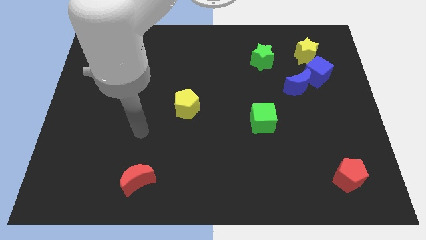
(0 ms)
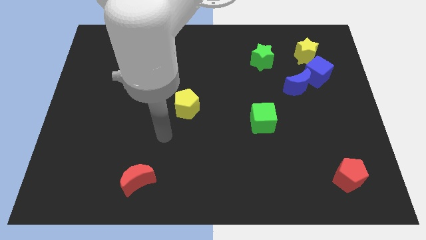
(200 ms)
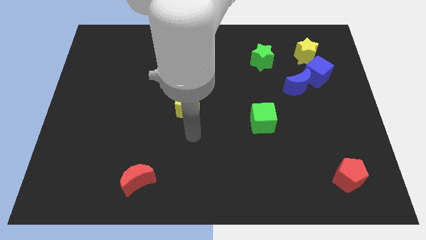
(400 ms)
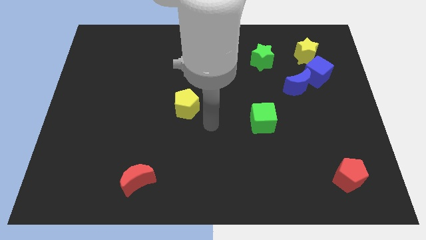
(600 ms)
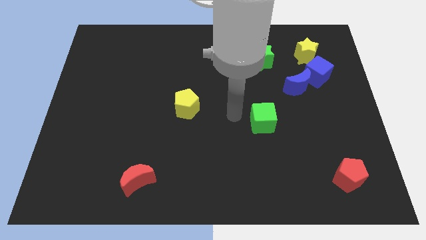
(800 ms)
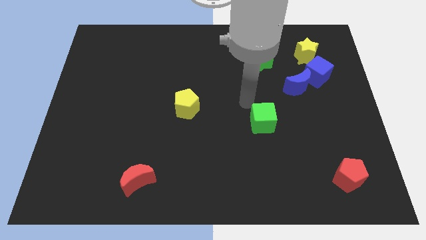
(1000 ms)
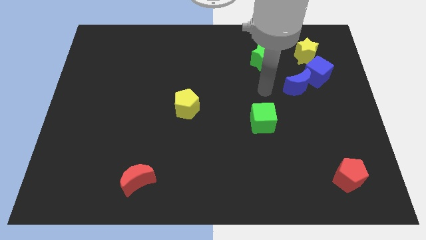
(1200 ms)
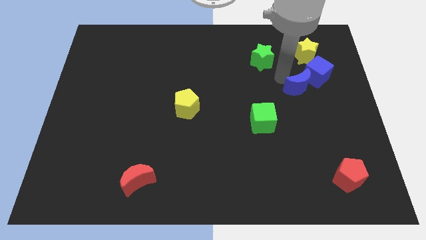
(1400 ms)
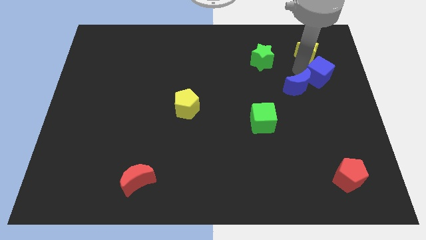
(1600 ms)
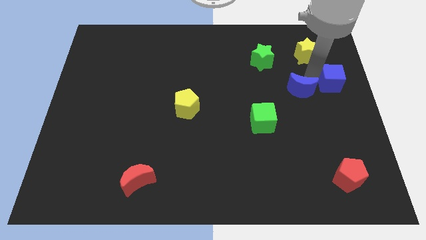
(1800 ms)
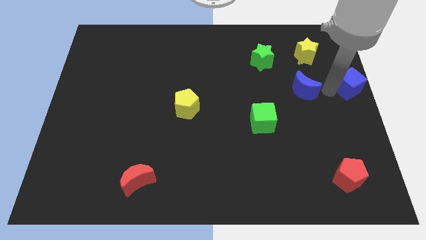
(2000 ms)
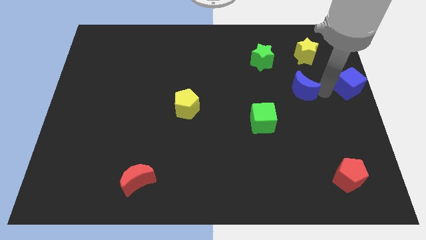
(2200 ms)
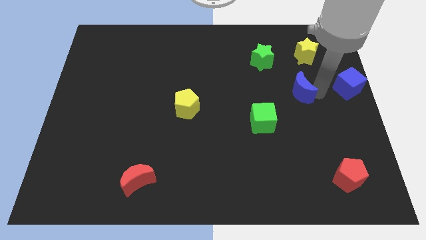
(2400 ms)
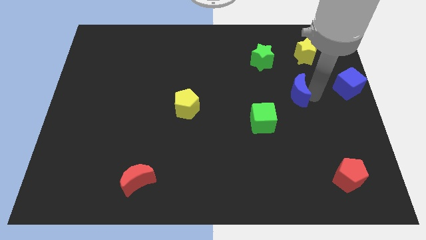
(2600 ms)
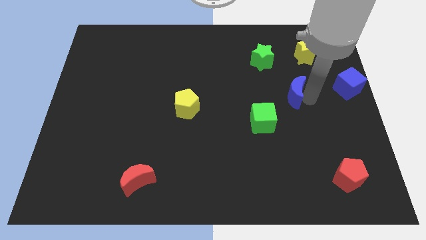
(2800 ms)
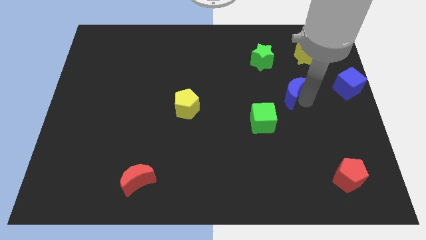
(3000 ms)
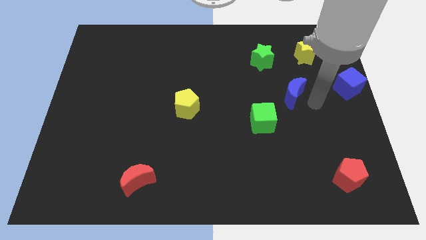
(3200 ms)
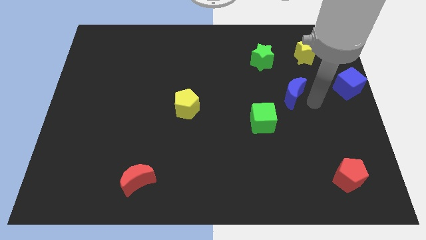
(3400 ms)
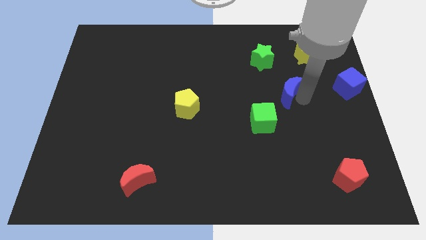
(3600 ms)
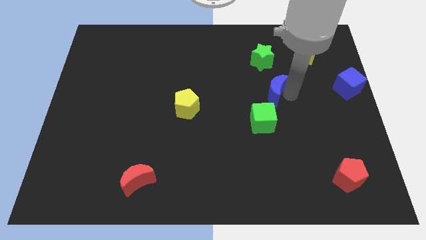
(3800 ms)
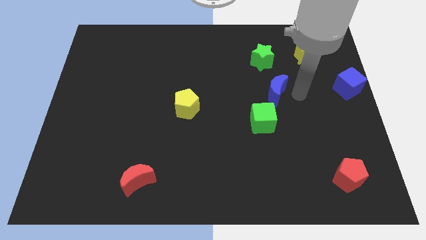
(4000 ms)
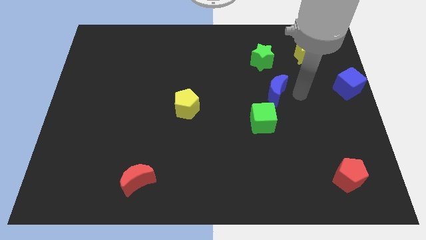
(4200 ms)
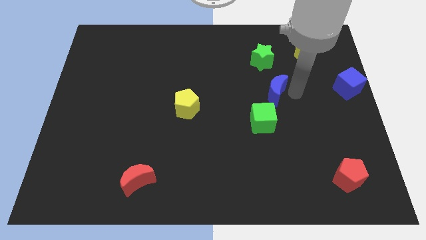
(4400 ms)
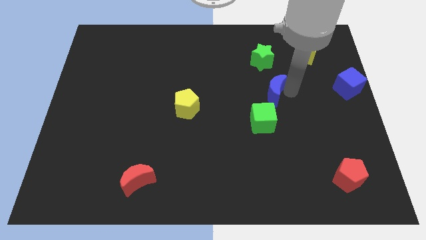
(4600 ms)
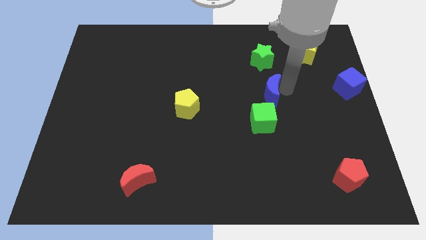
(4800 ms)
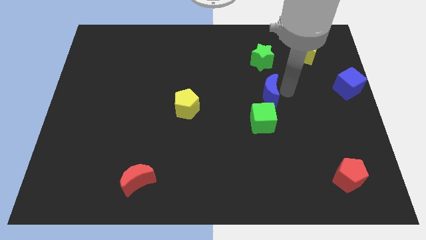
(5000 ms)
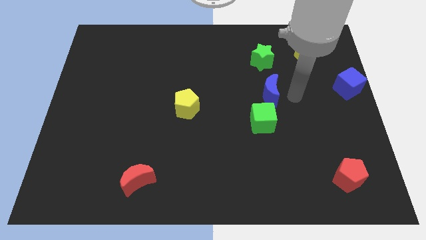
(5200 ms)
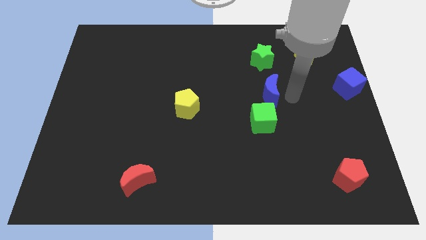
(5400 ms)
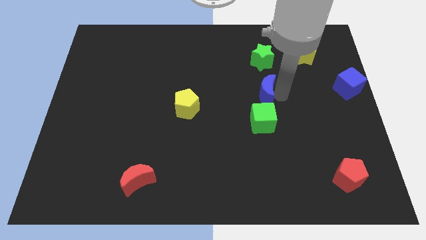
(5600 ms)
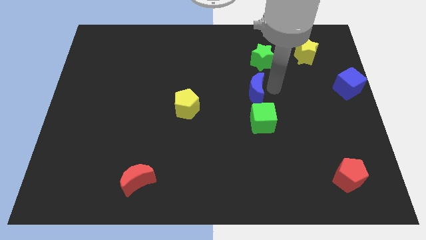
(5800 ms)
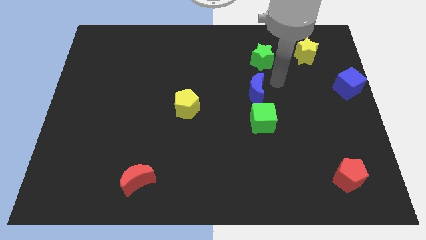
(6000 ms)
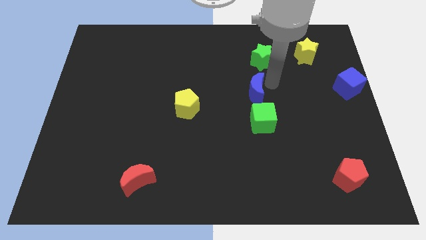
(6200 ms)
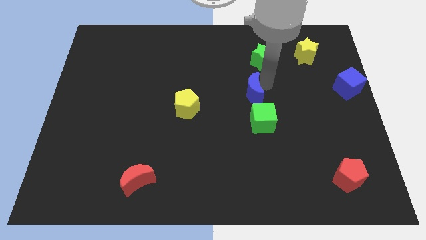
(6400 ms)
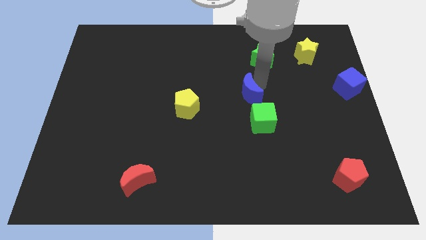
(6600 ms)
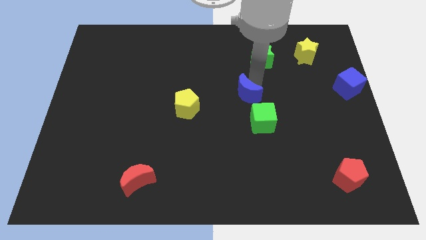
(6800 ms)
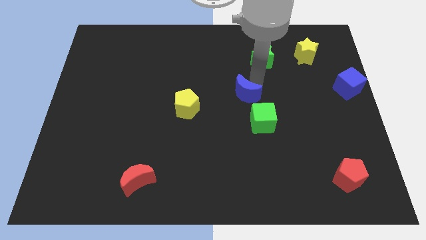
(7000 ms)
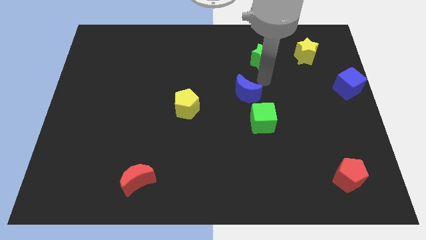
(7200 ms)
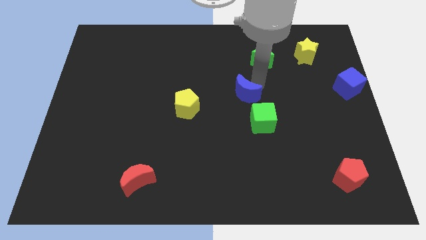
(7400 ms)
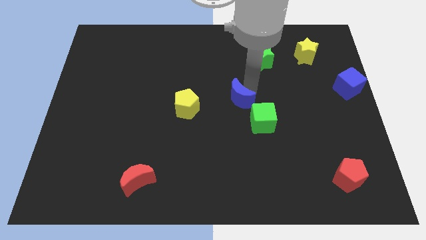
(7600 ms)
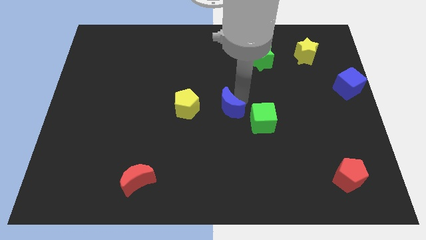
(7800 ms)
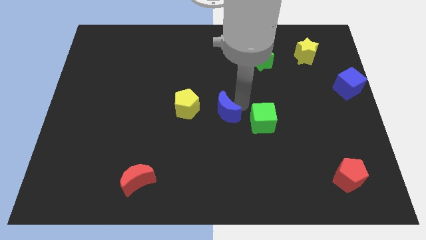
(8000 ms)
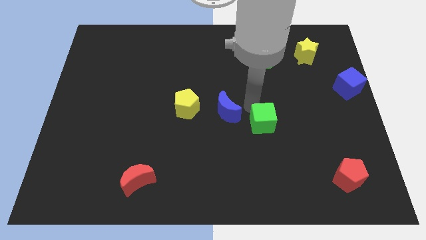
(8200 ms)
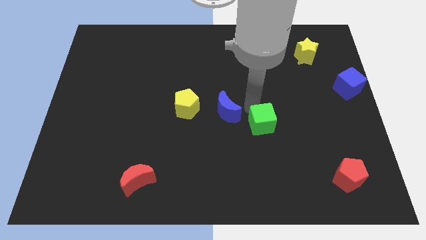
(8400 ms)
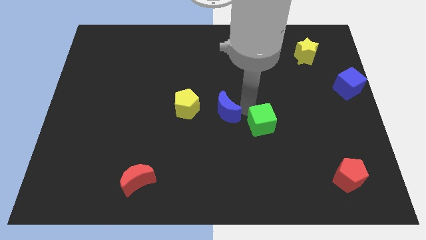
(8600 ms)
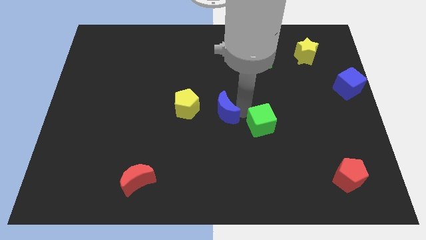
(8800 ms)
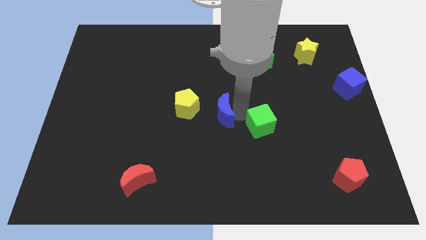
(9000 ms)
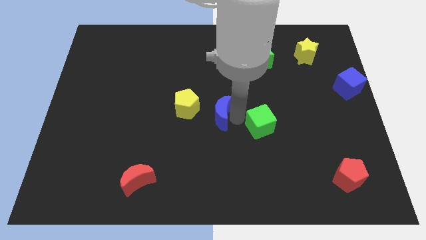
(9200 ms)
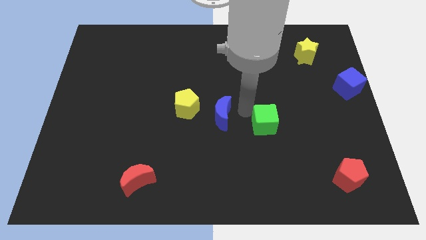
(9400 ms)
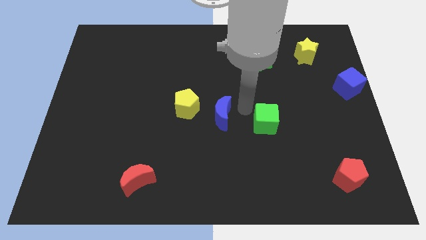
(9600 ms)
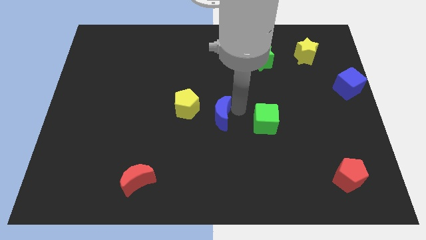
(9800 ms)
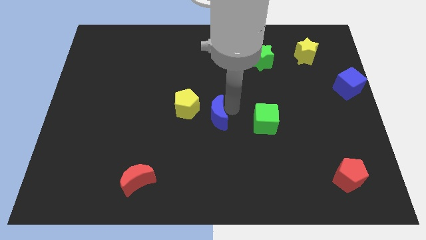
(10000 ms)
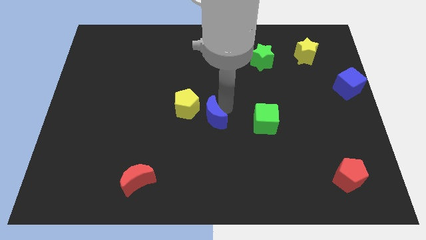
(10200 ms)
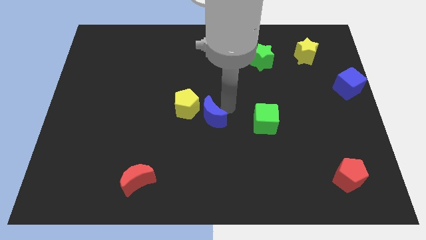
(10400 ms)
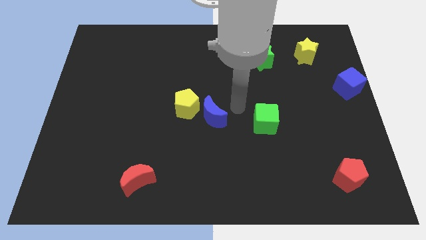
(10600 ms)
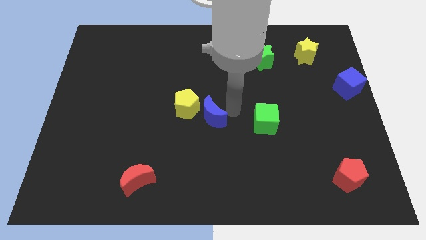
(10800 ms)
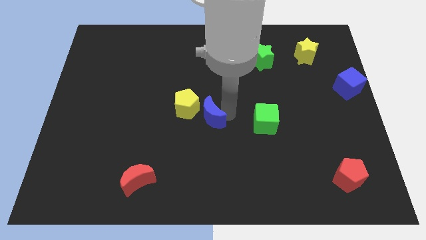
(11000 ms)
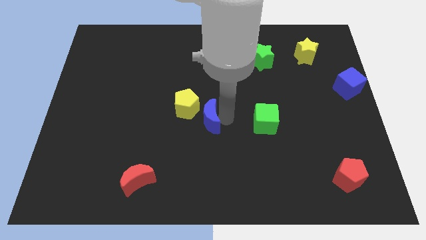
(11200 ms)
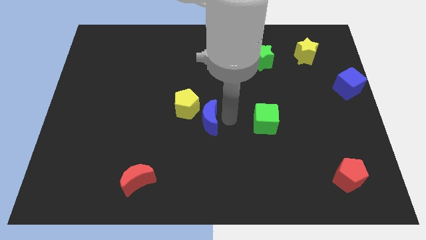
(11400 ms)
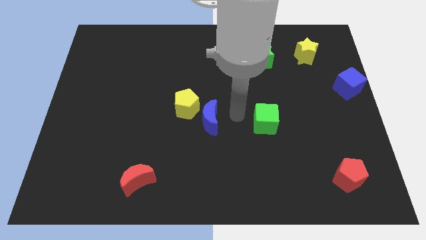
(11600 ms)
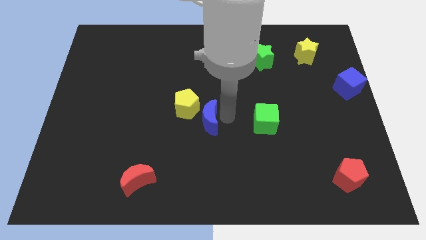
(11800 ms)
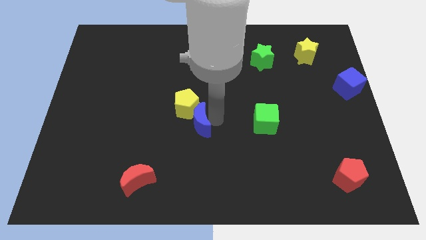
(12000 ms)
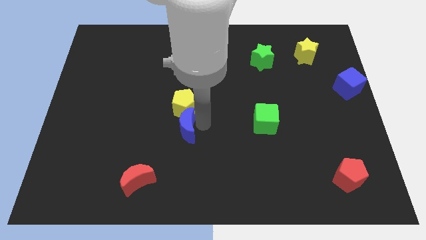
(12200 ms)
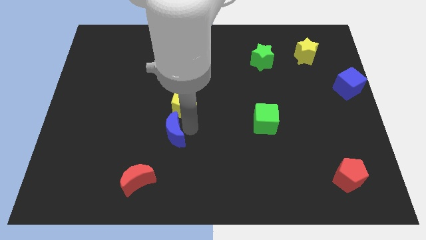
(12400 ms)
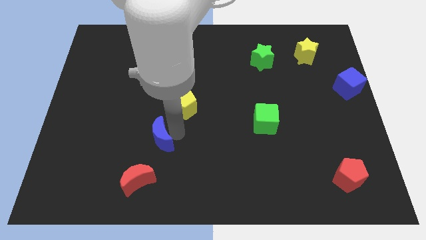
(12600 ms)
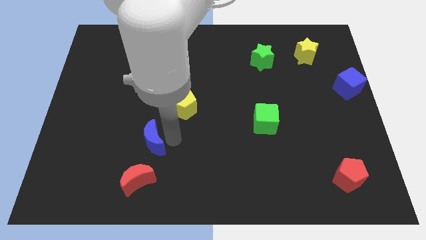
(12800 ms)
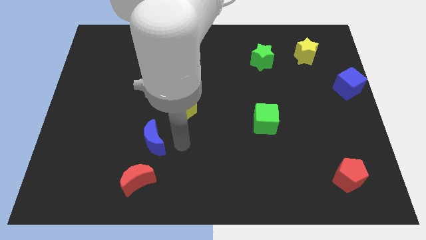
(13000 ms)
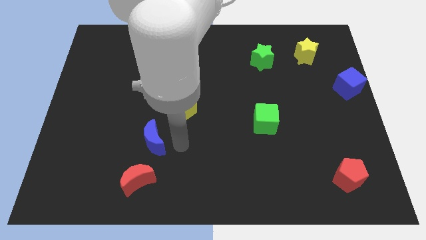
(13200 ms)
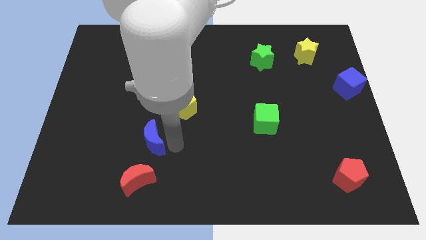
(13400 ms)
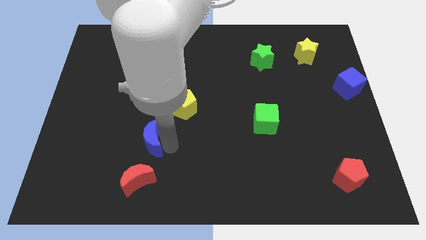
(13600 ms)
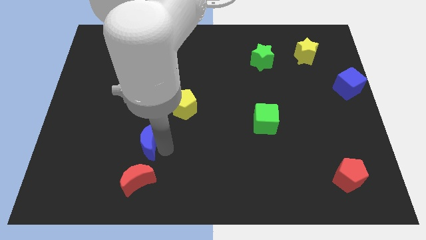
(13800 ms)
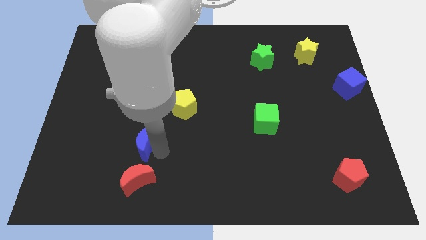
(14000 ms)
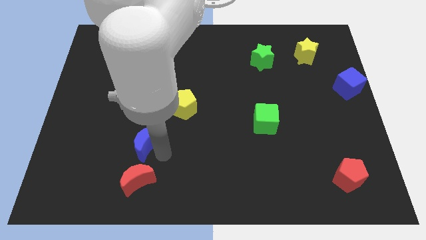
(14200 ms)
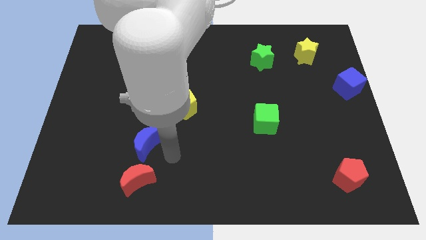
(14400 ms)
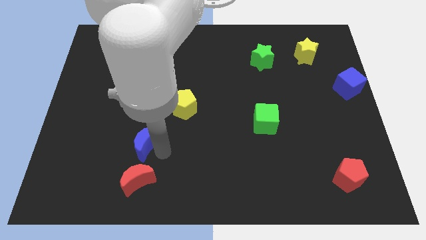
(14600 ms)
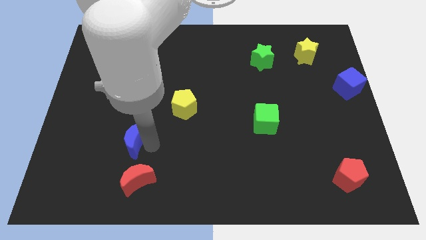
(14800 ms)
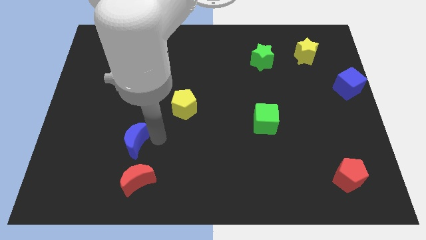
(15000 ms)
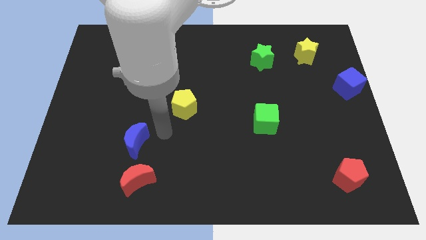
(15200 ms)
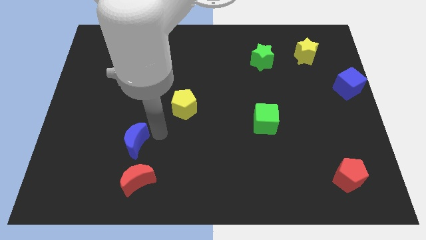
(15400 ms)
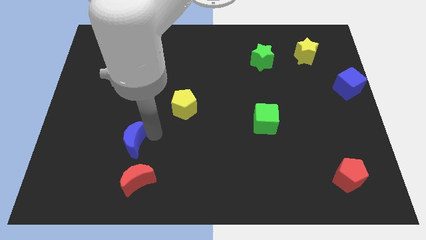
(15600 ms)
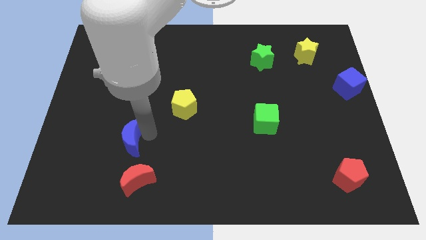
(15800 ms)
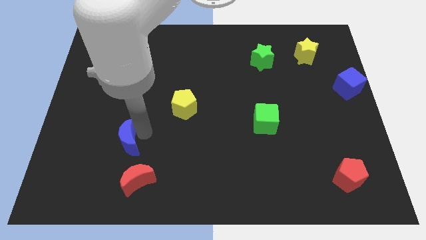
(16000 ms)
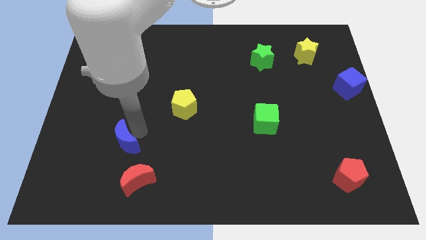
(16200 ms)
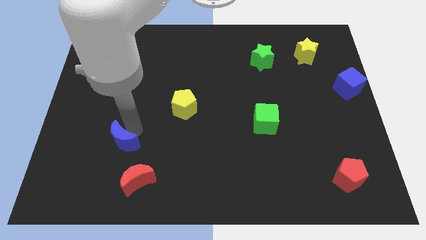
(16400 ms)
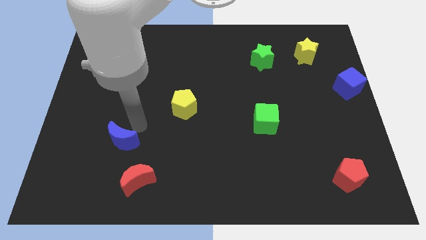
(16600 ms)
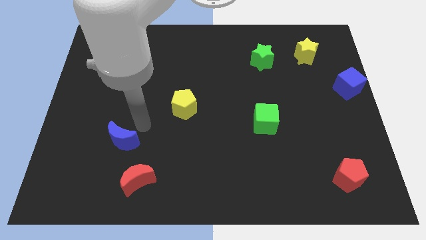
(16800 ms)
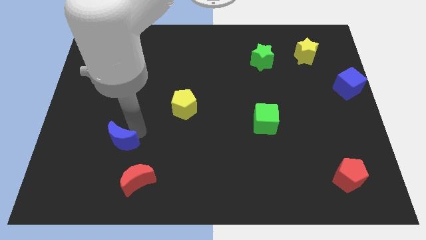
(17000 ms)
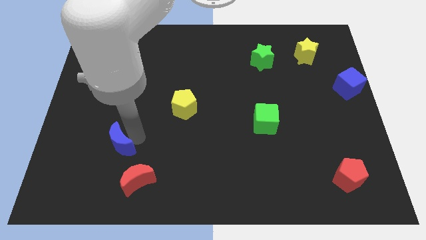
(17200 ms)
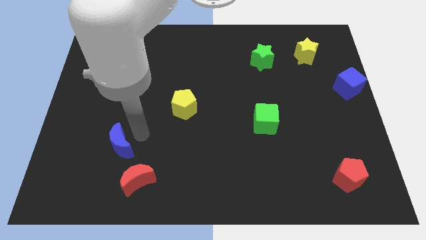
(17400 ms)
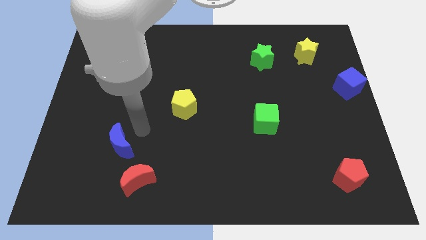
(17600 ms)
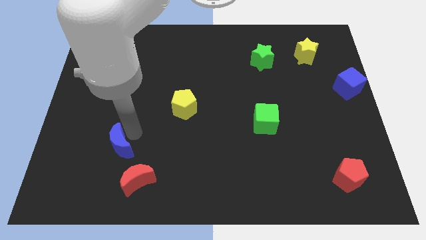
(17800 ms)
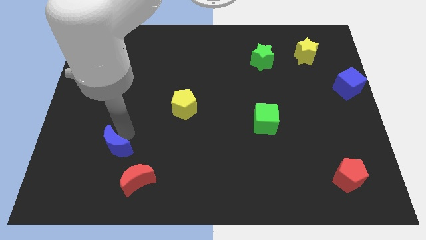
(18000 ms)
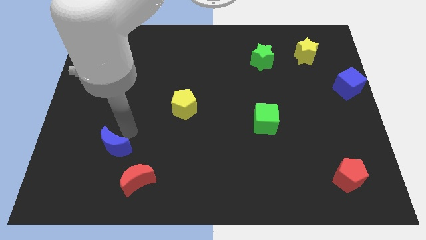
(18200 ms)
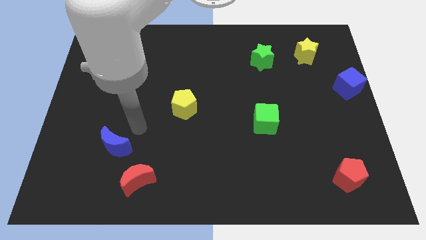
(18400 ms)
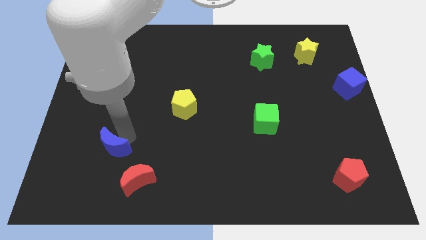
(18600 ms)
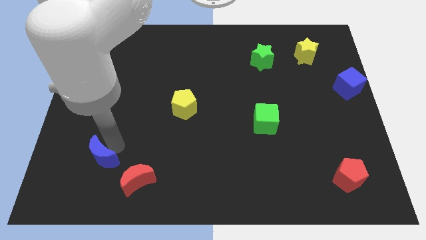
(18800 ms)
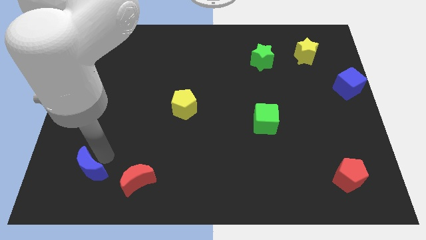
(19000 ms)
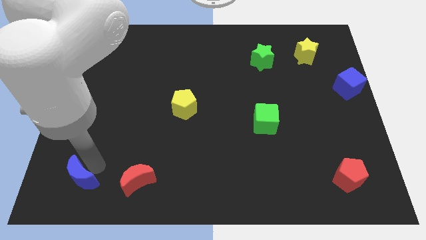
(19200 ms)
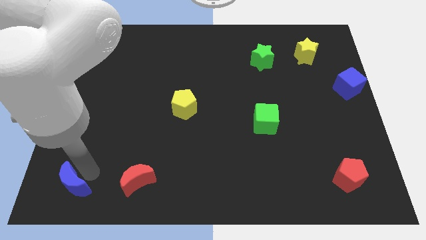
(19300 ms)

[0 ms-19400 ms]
push the blue moon to the lower left corner
